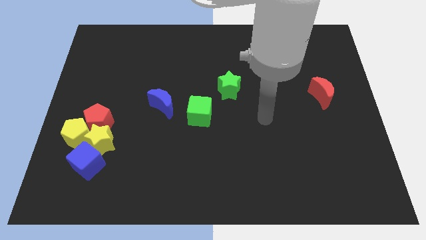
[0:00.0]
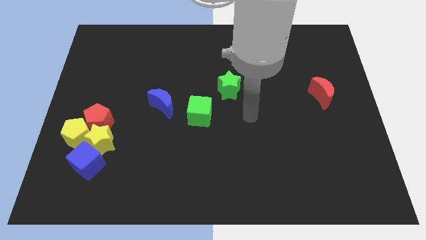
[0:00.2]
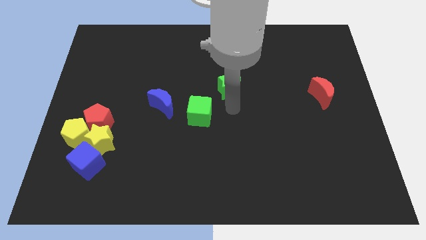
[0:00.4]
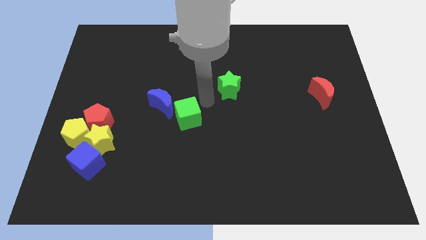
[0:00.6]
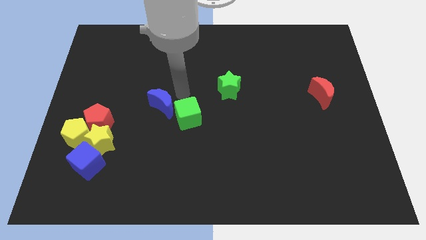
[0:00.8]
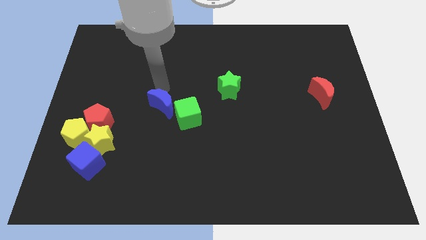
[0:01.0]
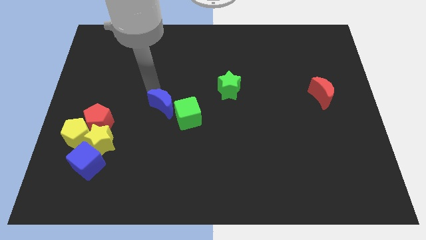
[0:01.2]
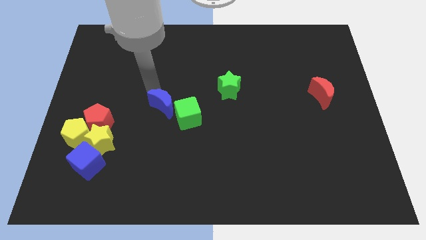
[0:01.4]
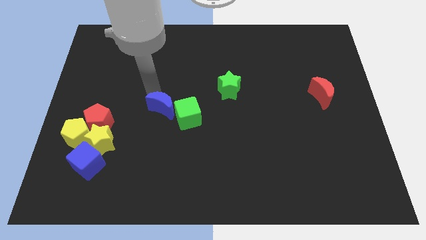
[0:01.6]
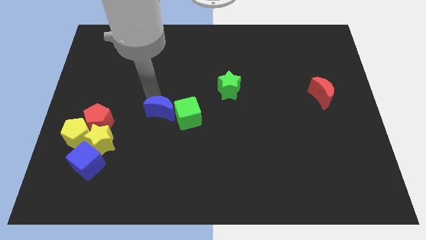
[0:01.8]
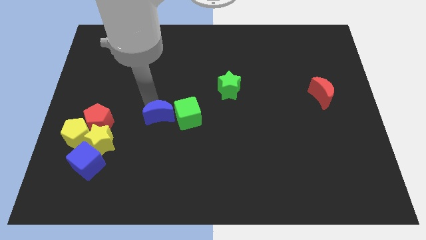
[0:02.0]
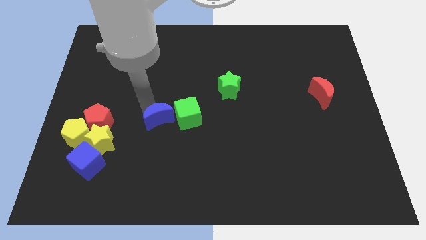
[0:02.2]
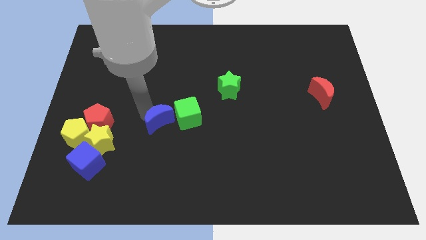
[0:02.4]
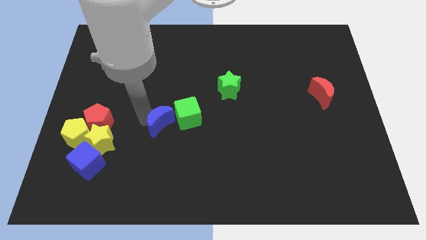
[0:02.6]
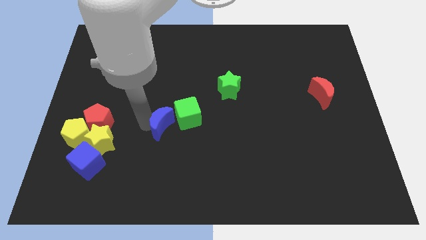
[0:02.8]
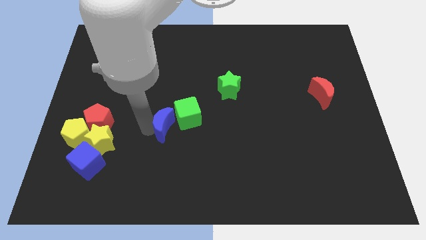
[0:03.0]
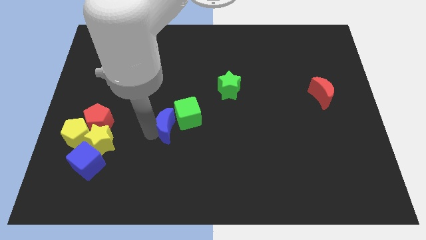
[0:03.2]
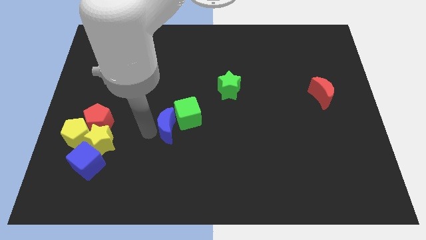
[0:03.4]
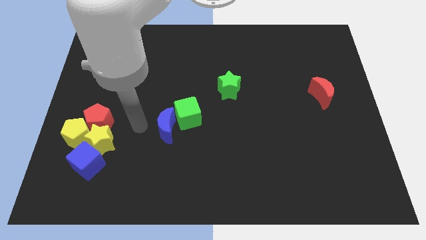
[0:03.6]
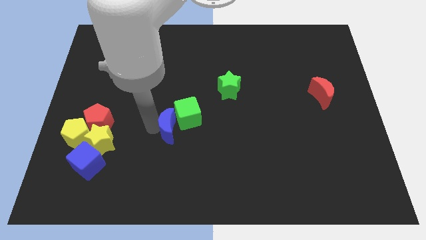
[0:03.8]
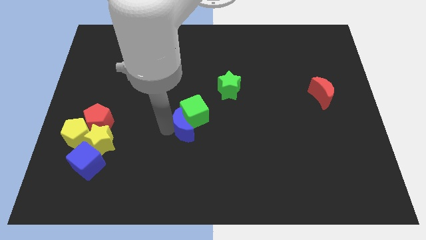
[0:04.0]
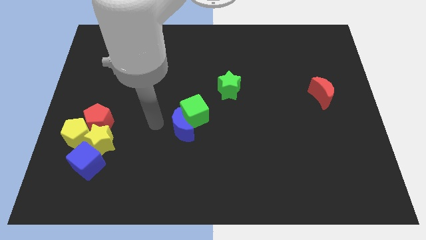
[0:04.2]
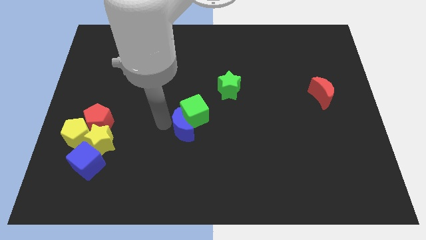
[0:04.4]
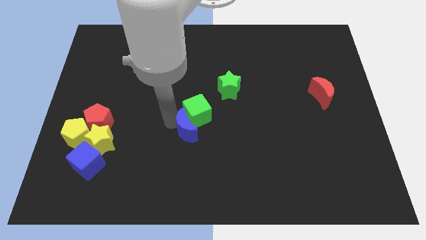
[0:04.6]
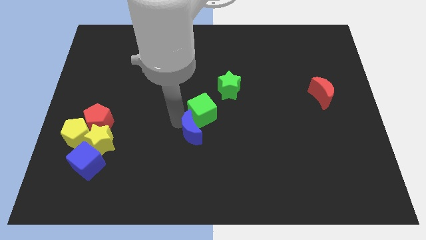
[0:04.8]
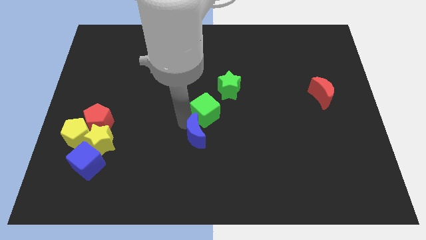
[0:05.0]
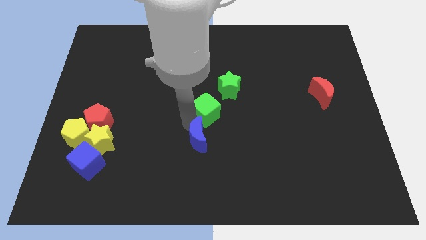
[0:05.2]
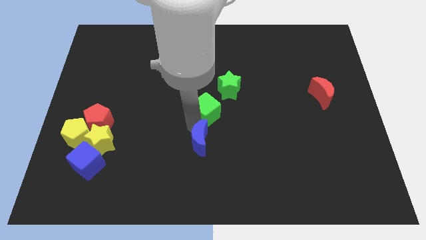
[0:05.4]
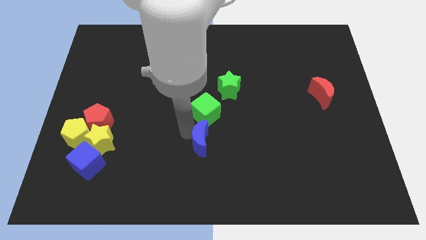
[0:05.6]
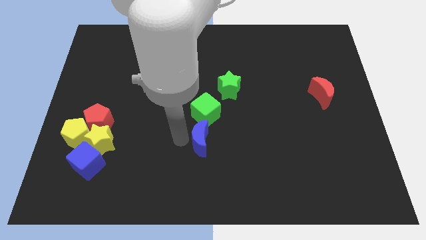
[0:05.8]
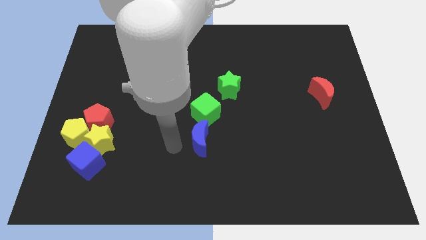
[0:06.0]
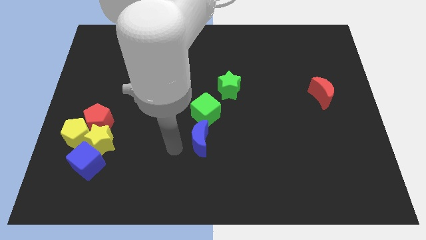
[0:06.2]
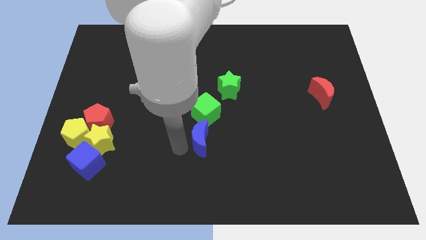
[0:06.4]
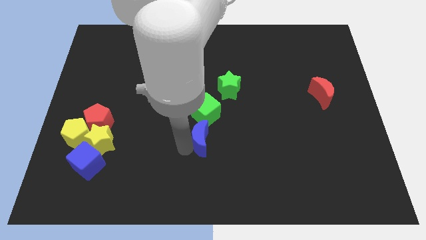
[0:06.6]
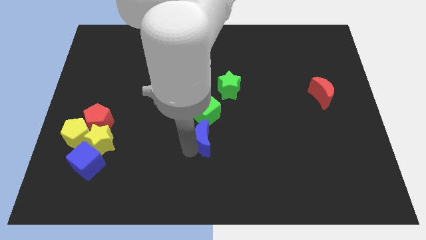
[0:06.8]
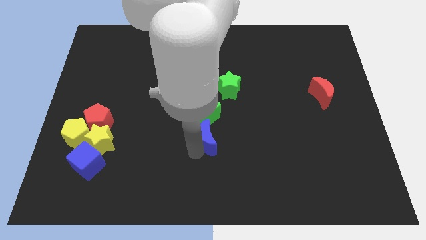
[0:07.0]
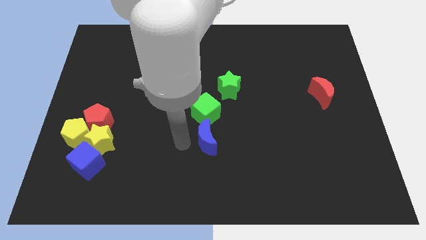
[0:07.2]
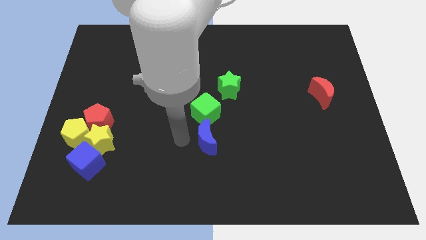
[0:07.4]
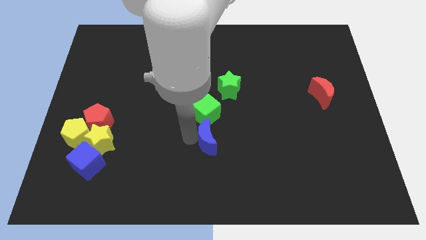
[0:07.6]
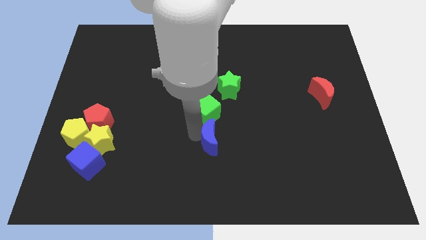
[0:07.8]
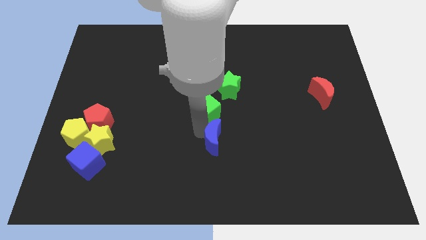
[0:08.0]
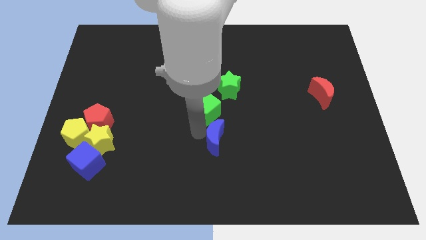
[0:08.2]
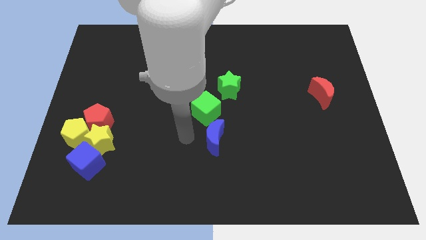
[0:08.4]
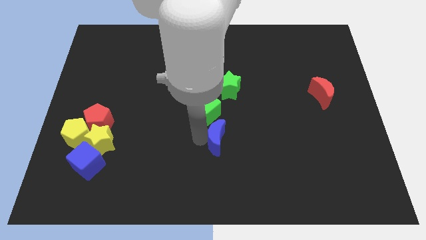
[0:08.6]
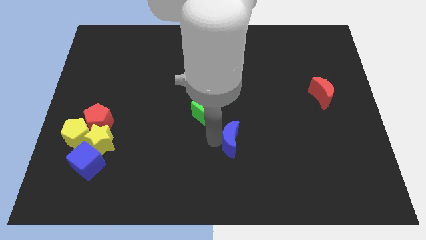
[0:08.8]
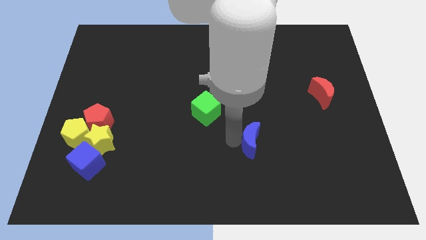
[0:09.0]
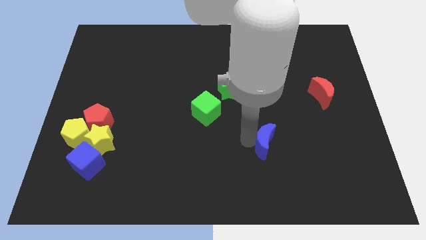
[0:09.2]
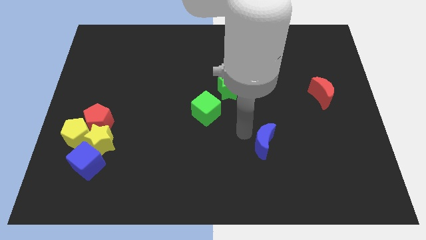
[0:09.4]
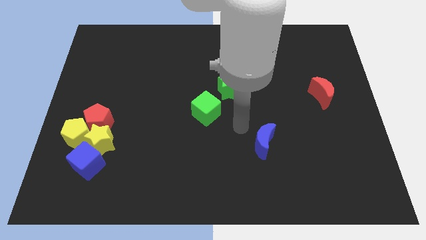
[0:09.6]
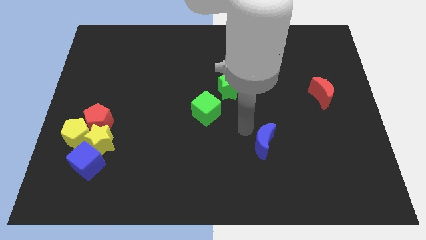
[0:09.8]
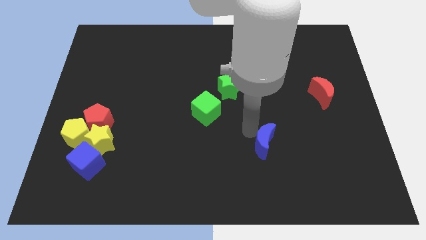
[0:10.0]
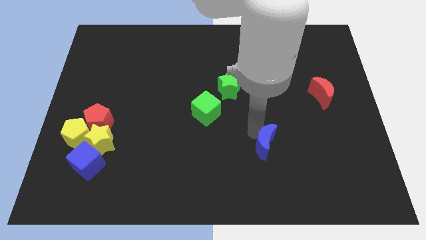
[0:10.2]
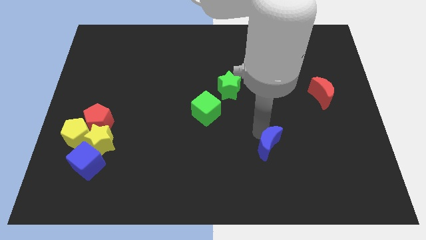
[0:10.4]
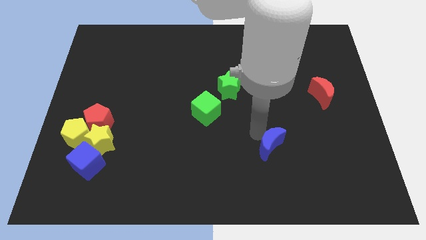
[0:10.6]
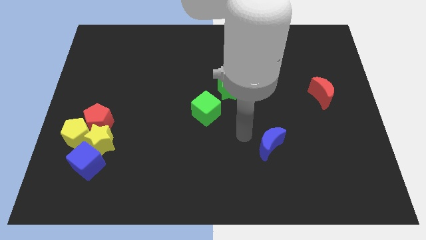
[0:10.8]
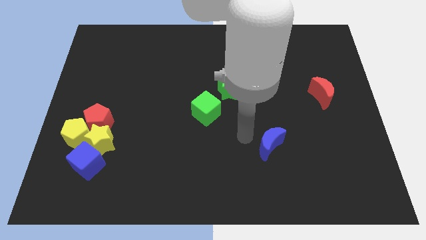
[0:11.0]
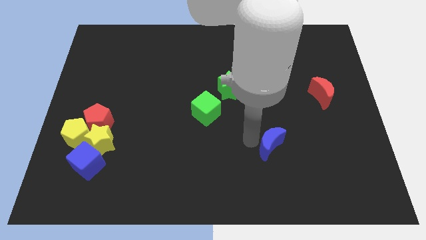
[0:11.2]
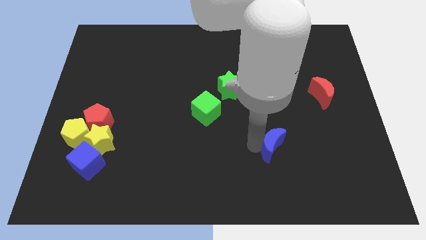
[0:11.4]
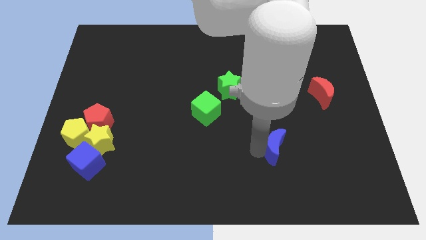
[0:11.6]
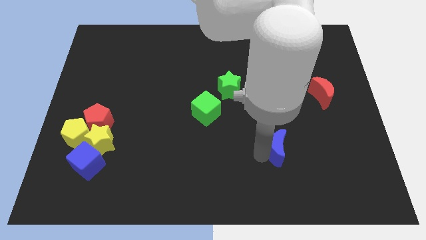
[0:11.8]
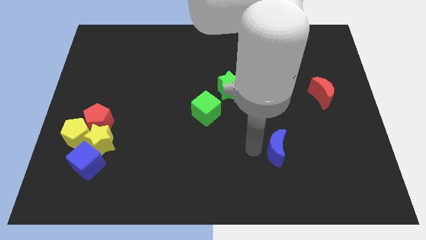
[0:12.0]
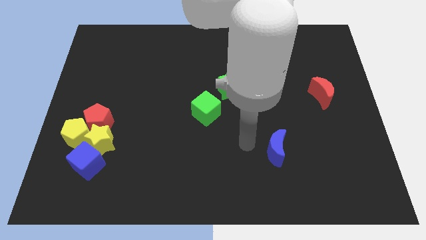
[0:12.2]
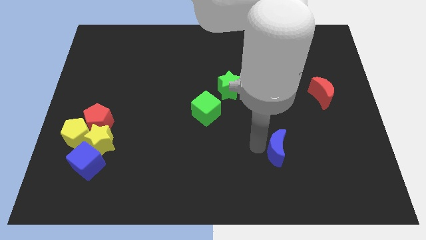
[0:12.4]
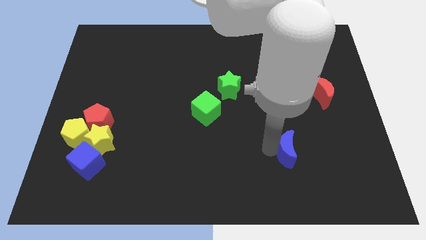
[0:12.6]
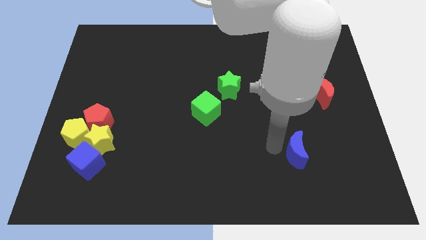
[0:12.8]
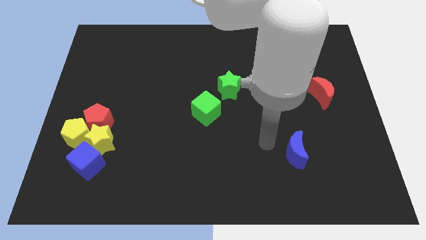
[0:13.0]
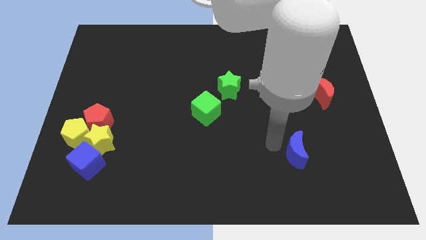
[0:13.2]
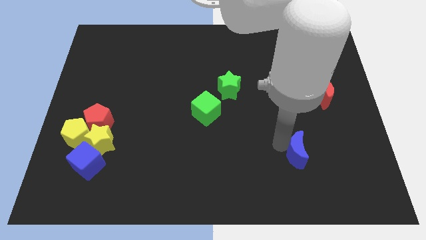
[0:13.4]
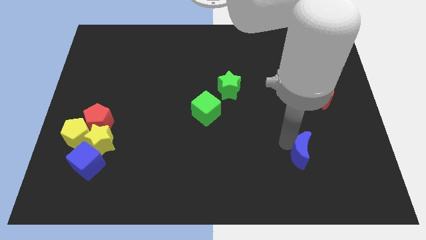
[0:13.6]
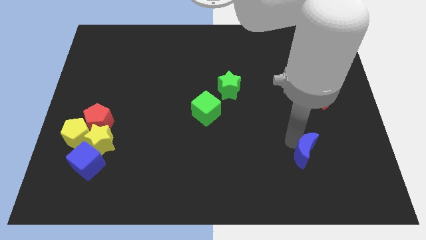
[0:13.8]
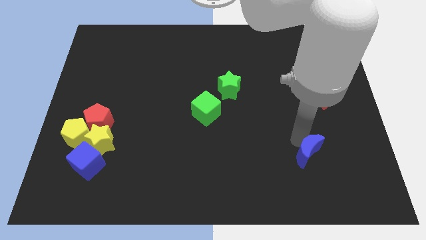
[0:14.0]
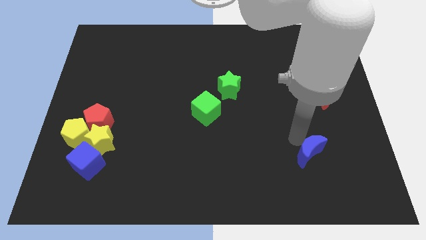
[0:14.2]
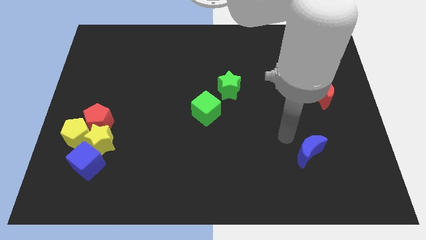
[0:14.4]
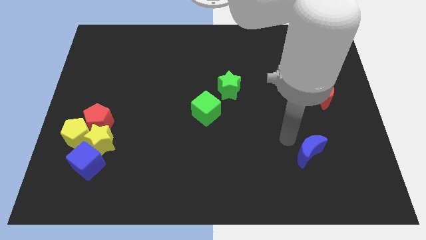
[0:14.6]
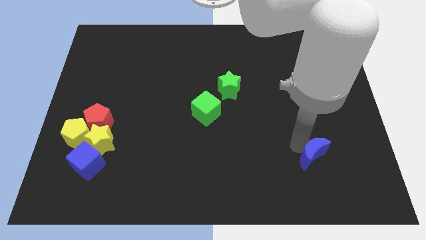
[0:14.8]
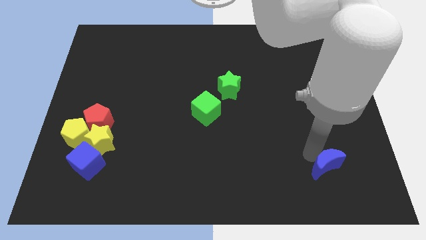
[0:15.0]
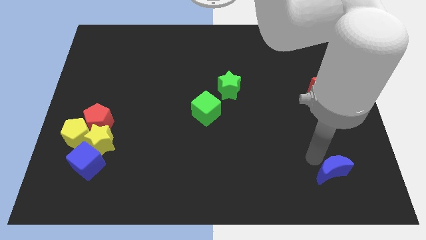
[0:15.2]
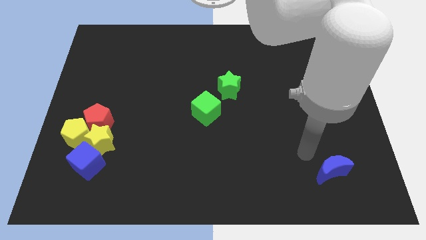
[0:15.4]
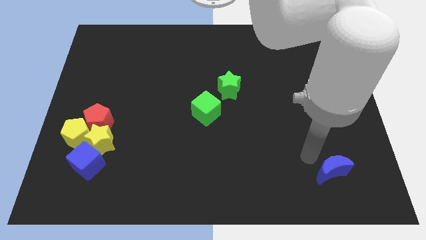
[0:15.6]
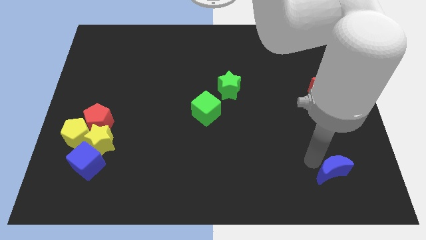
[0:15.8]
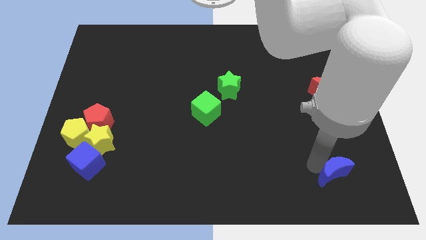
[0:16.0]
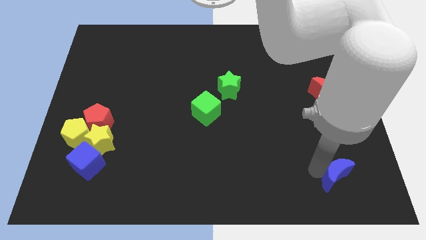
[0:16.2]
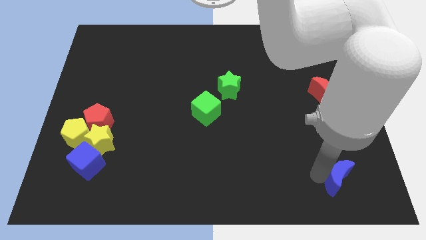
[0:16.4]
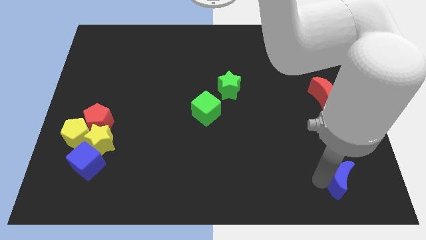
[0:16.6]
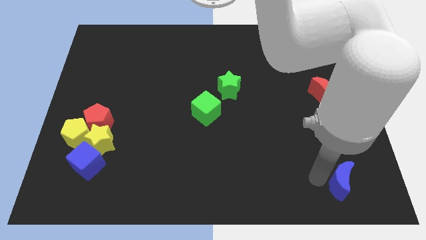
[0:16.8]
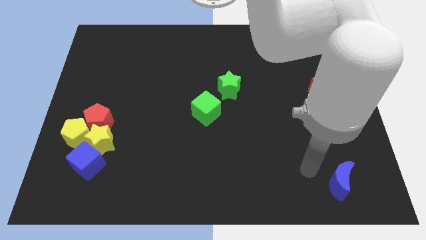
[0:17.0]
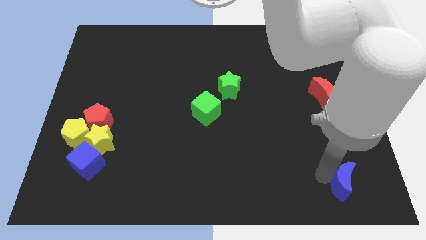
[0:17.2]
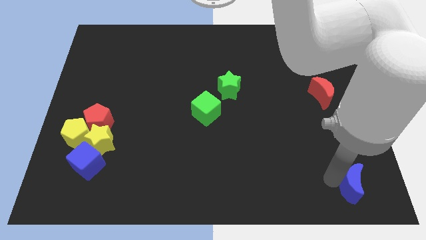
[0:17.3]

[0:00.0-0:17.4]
put the blue moon to the bottom right corner
